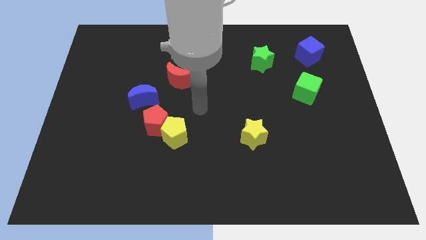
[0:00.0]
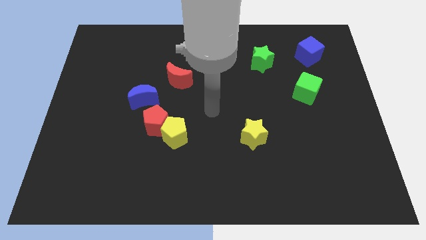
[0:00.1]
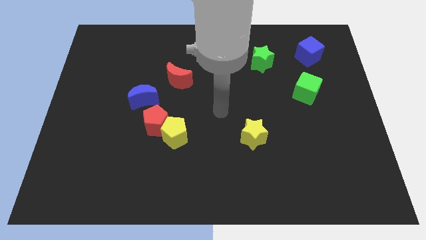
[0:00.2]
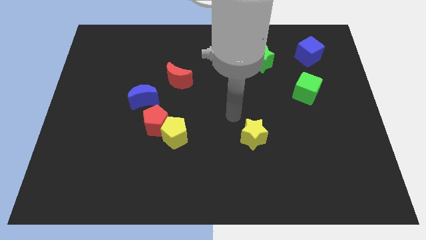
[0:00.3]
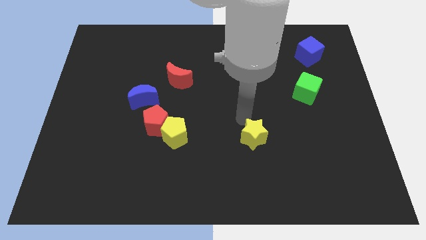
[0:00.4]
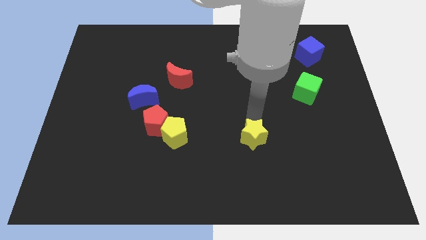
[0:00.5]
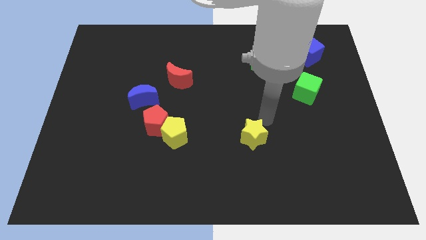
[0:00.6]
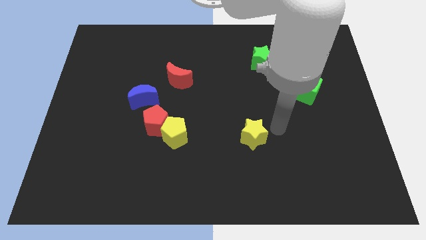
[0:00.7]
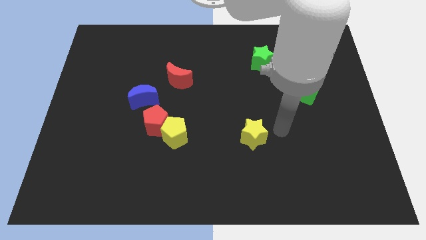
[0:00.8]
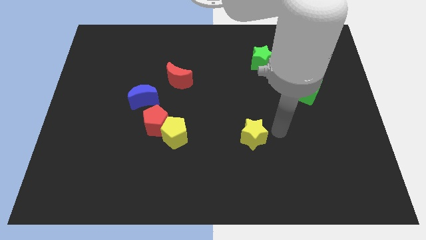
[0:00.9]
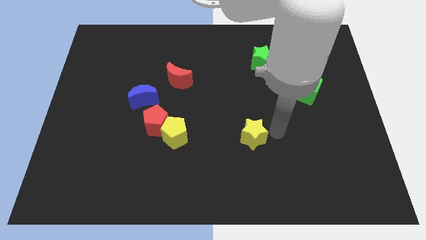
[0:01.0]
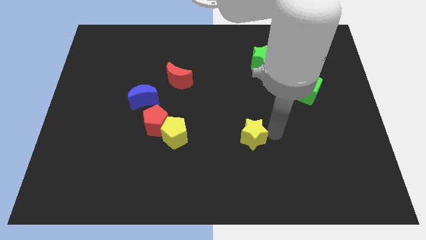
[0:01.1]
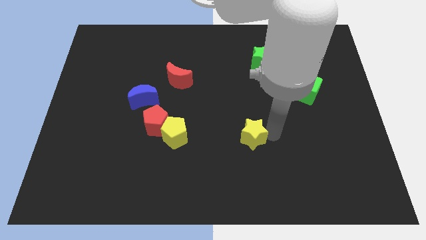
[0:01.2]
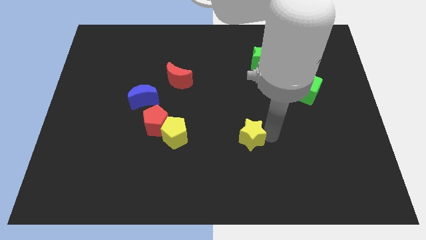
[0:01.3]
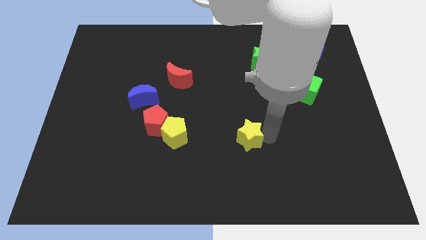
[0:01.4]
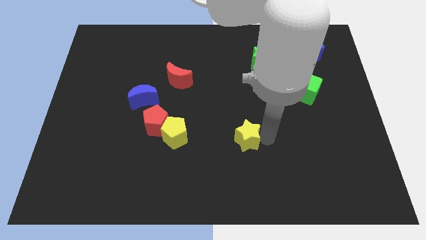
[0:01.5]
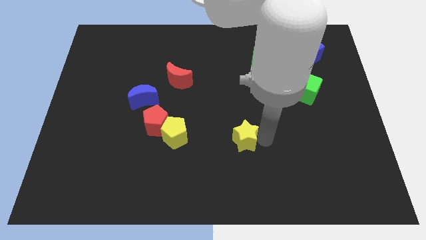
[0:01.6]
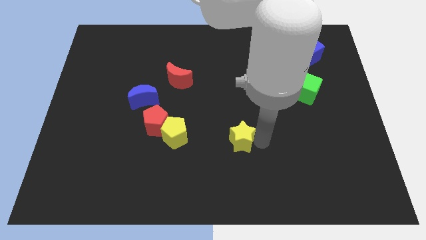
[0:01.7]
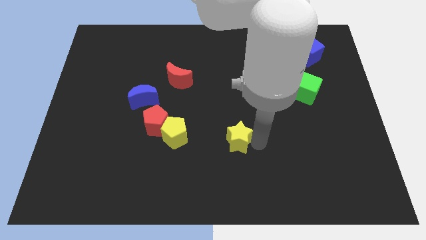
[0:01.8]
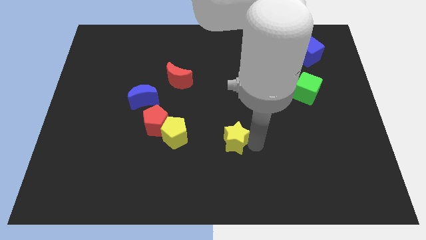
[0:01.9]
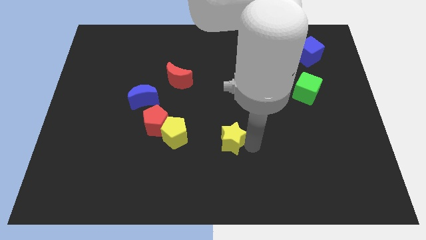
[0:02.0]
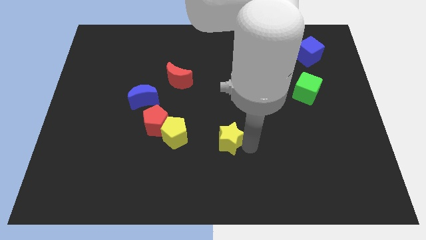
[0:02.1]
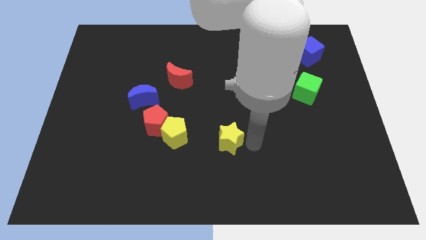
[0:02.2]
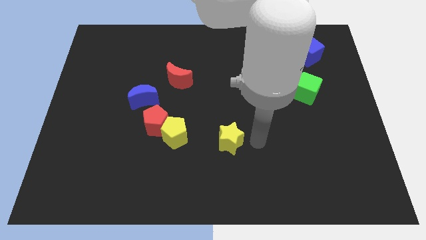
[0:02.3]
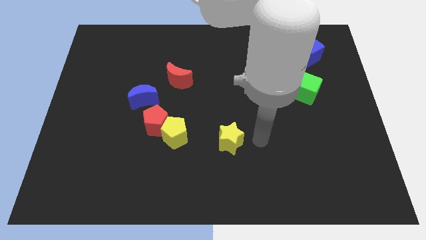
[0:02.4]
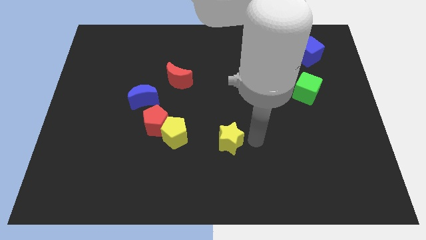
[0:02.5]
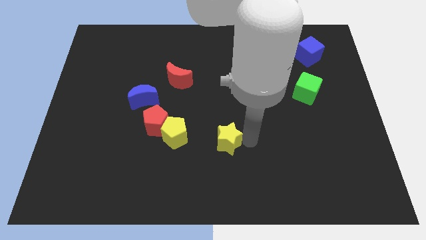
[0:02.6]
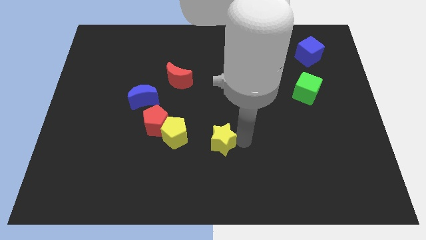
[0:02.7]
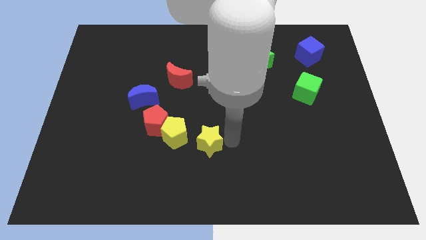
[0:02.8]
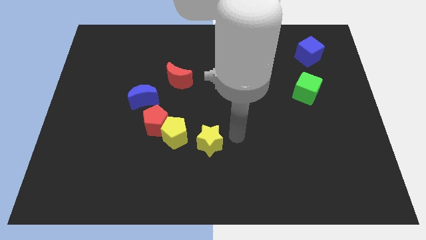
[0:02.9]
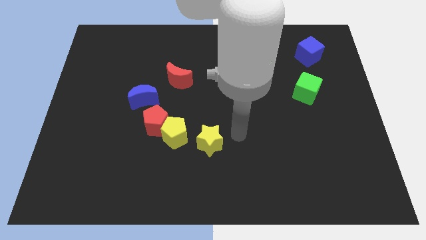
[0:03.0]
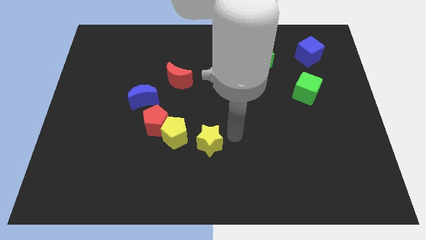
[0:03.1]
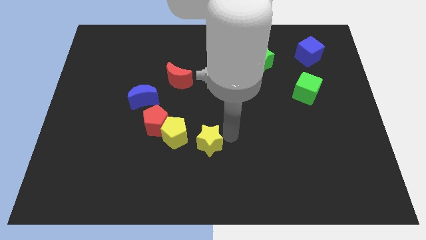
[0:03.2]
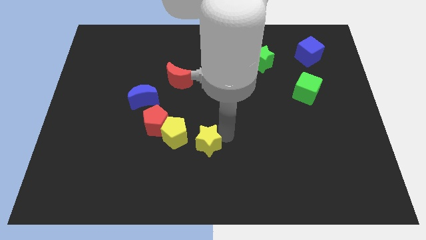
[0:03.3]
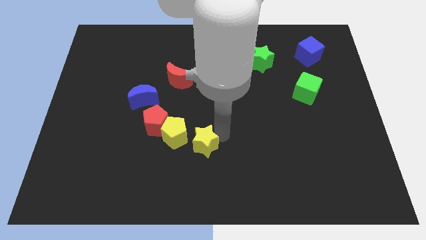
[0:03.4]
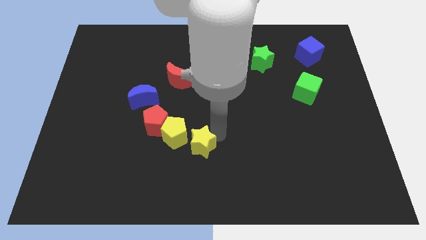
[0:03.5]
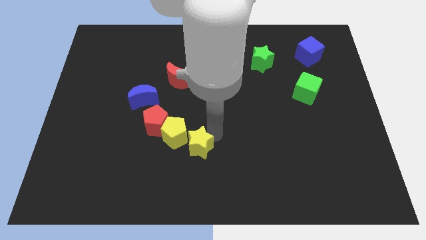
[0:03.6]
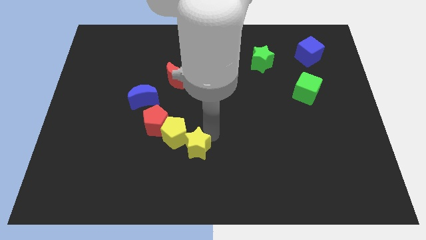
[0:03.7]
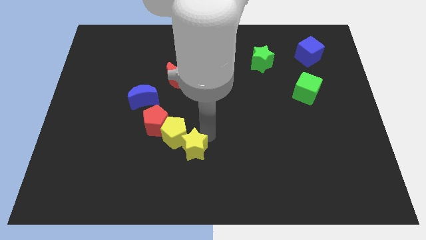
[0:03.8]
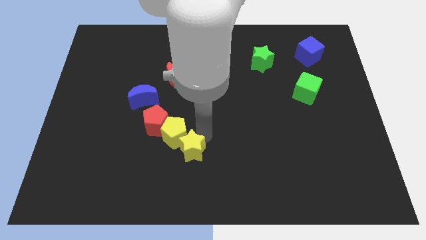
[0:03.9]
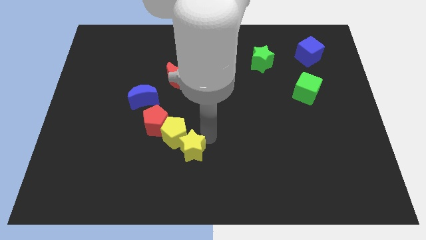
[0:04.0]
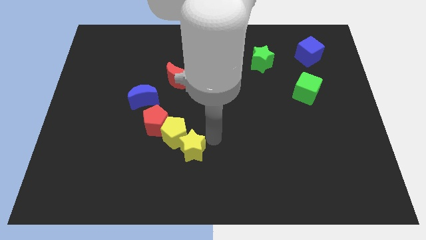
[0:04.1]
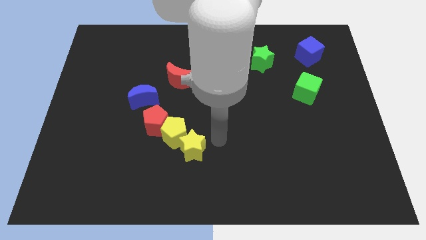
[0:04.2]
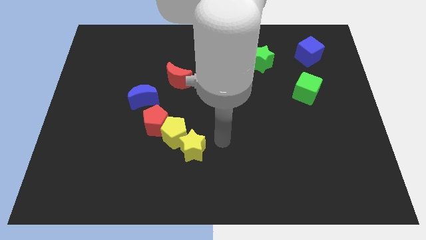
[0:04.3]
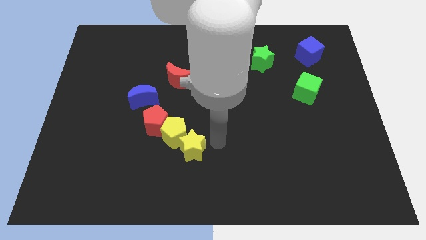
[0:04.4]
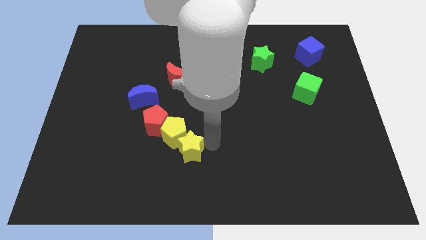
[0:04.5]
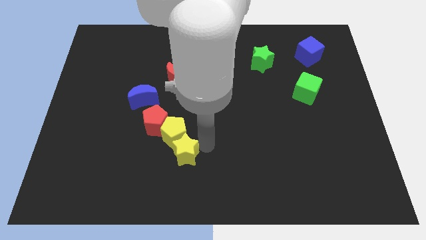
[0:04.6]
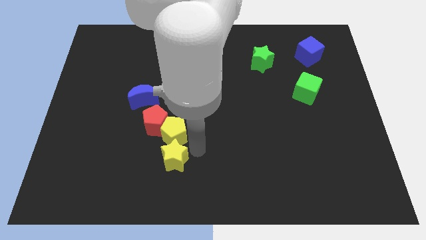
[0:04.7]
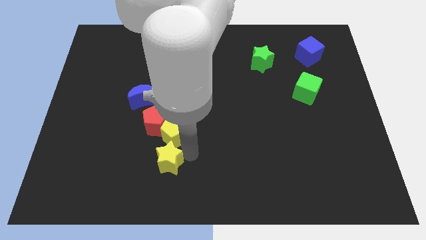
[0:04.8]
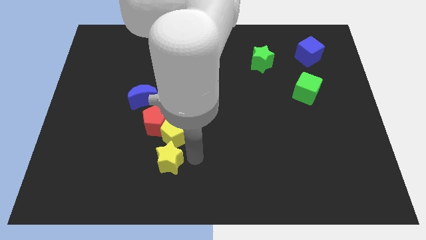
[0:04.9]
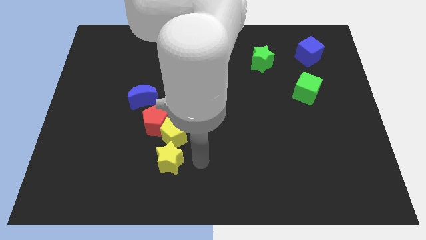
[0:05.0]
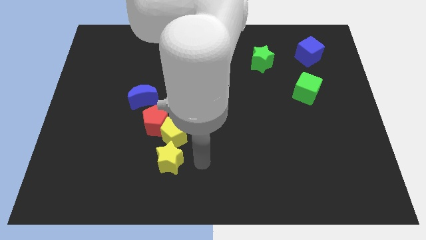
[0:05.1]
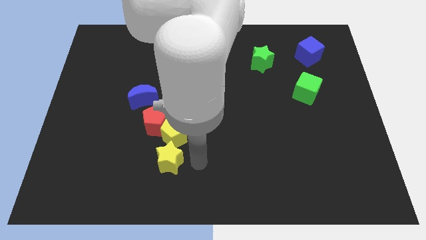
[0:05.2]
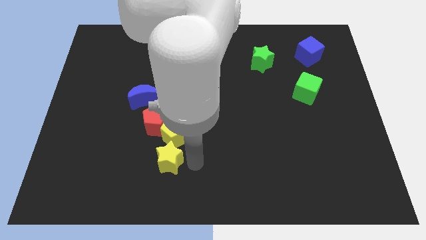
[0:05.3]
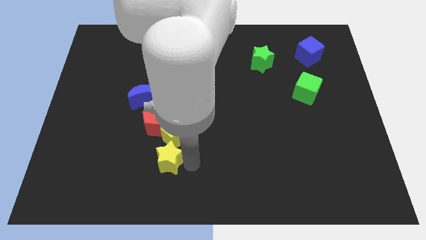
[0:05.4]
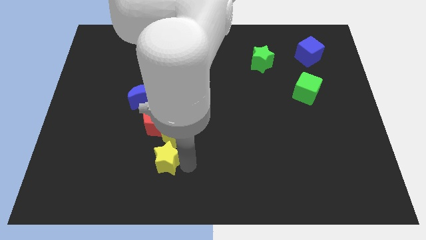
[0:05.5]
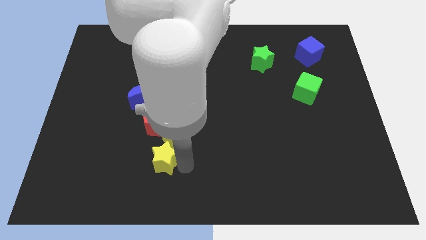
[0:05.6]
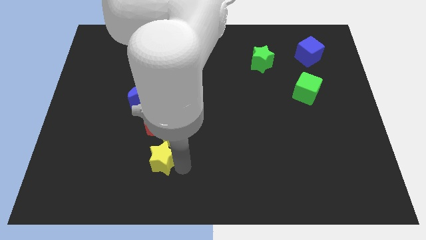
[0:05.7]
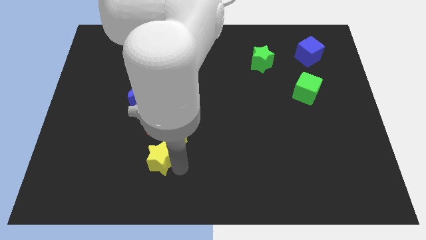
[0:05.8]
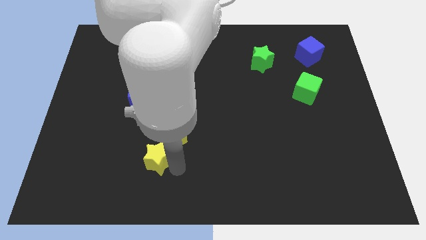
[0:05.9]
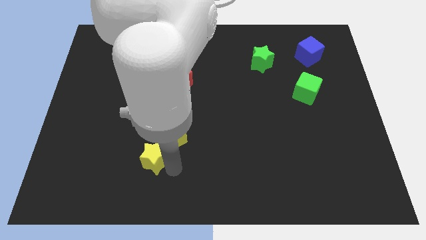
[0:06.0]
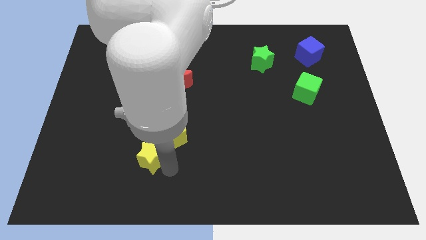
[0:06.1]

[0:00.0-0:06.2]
move the yellow star left

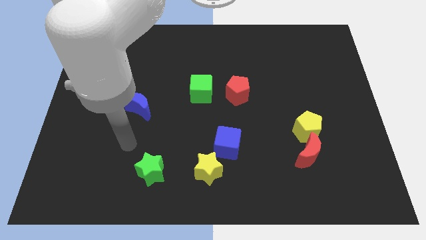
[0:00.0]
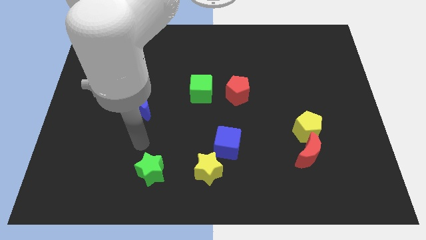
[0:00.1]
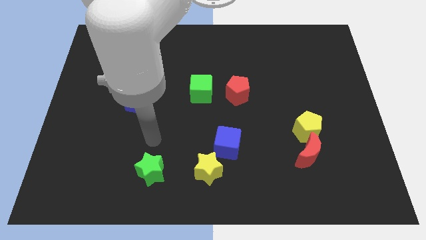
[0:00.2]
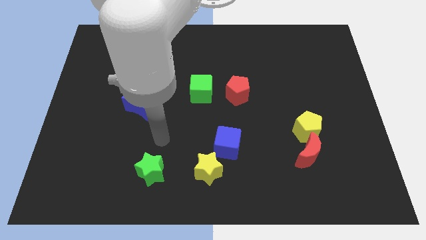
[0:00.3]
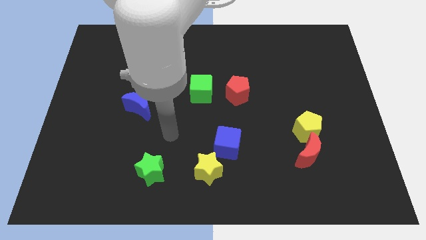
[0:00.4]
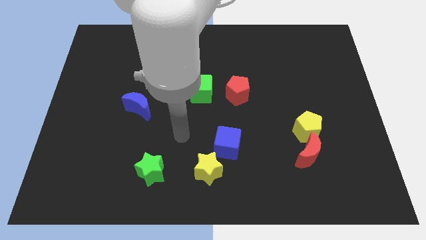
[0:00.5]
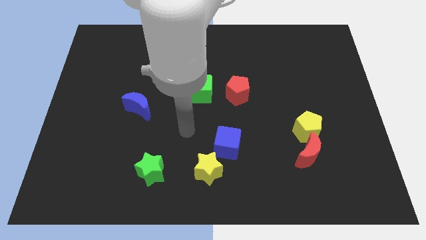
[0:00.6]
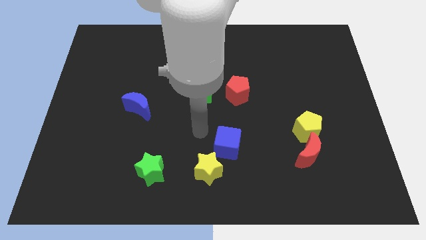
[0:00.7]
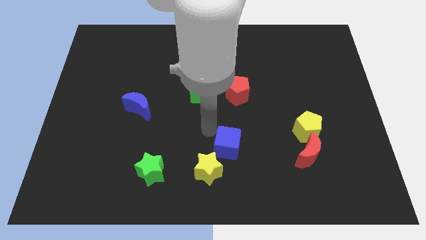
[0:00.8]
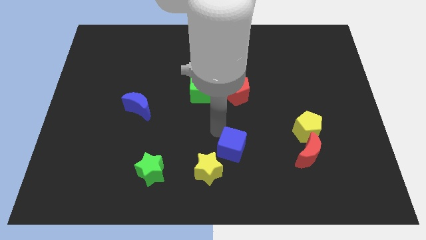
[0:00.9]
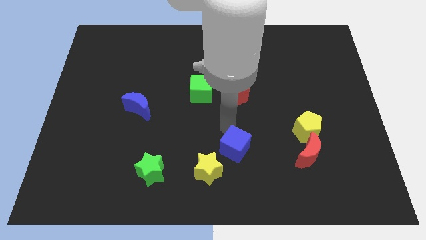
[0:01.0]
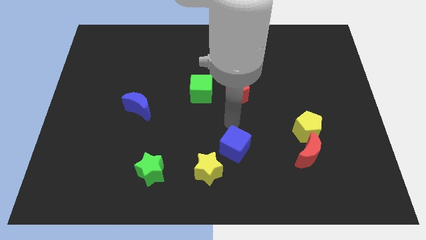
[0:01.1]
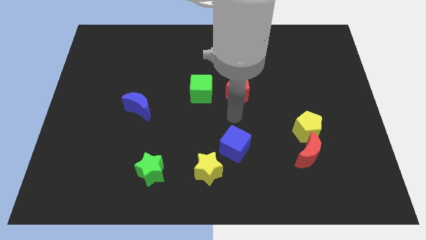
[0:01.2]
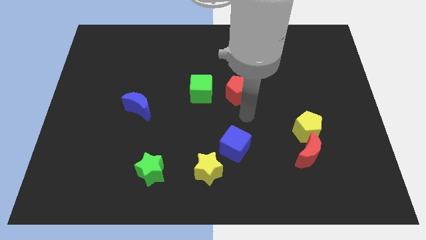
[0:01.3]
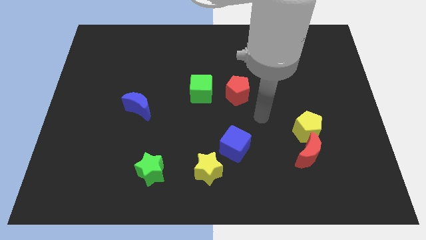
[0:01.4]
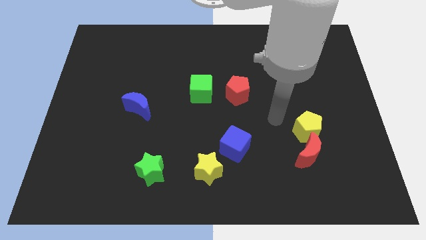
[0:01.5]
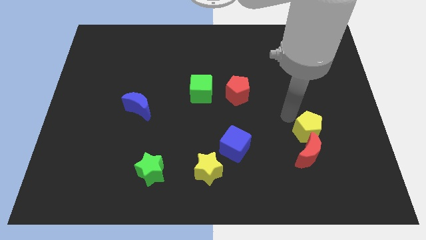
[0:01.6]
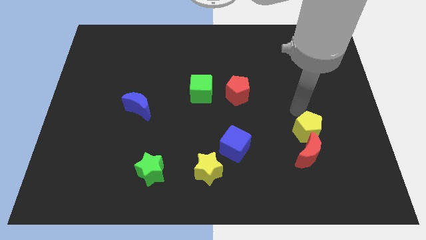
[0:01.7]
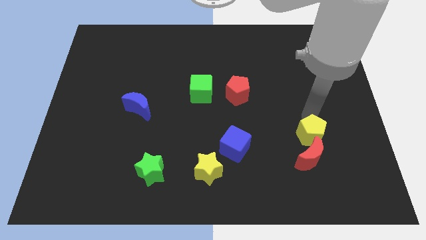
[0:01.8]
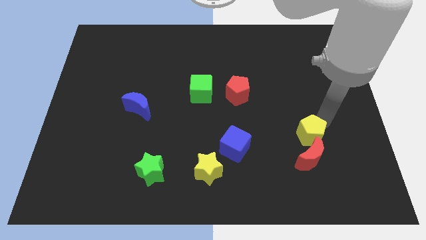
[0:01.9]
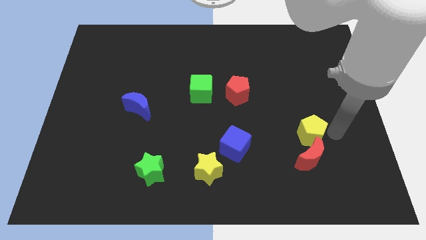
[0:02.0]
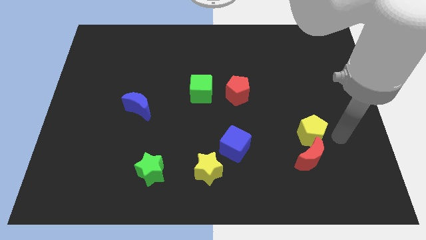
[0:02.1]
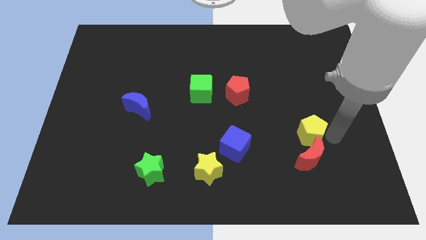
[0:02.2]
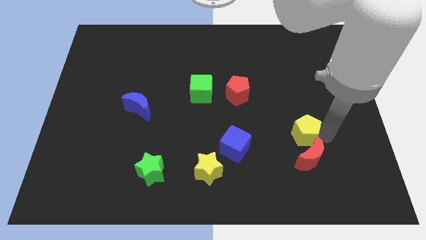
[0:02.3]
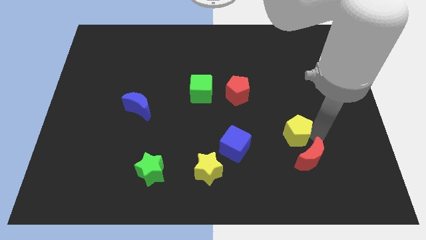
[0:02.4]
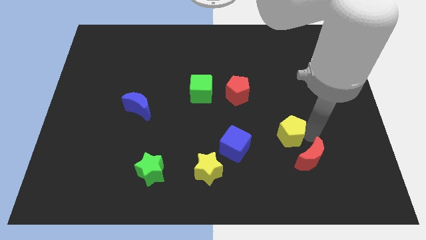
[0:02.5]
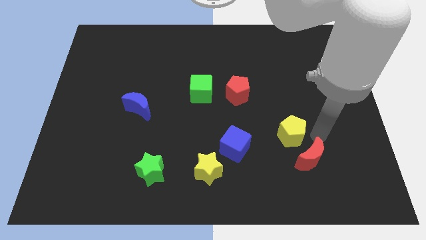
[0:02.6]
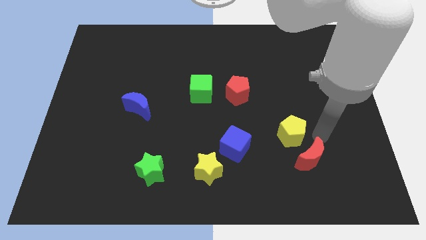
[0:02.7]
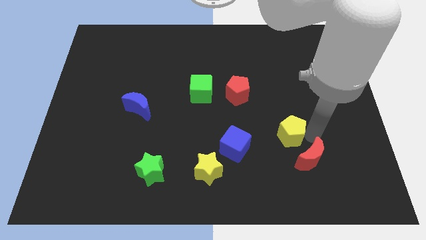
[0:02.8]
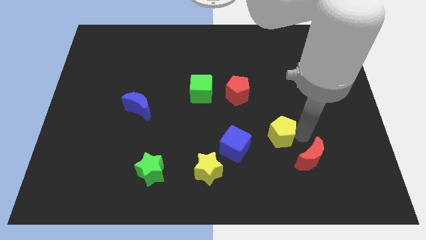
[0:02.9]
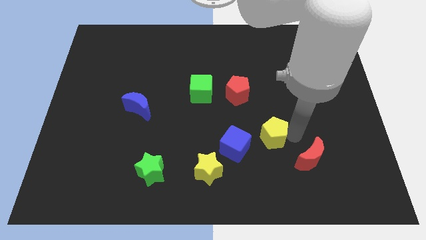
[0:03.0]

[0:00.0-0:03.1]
slide the yellow pentagon left a little bit
